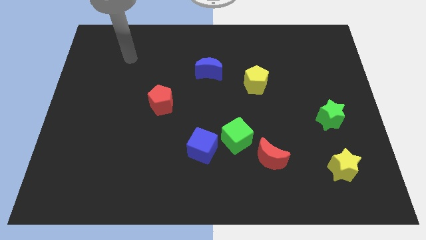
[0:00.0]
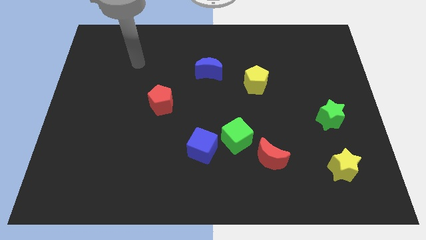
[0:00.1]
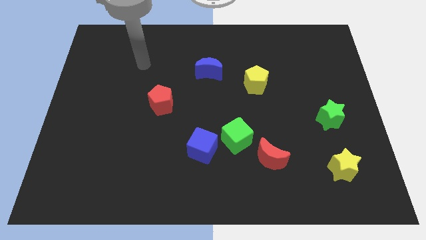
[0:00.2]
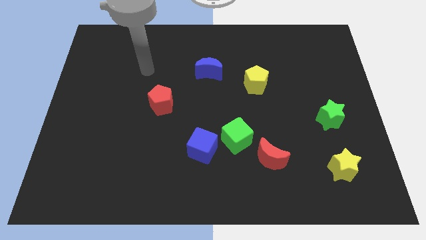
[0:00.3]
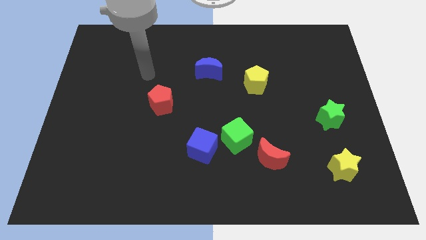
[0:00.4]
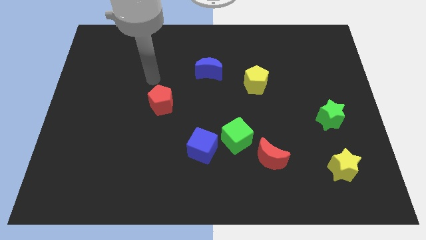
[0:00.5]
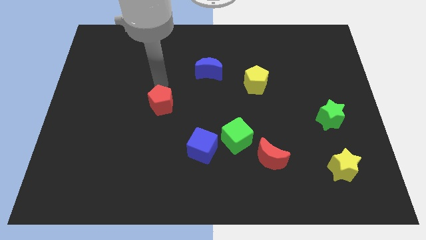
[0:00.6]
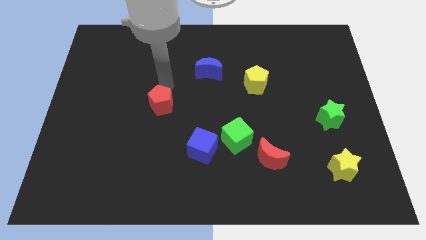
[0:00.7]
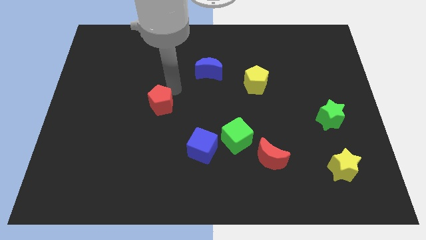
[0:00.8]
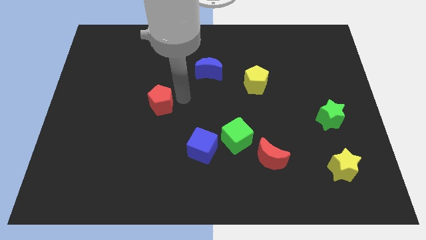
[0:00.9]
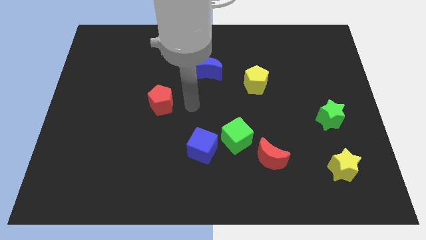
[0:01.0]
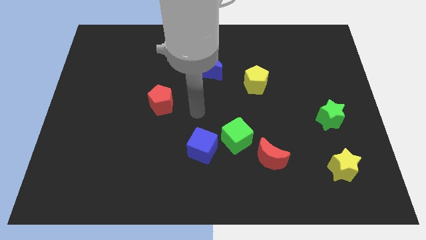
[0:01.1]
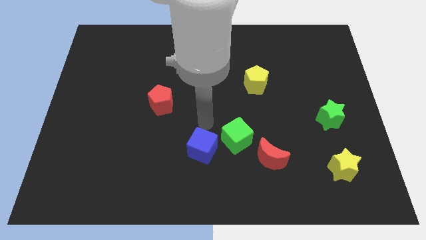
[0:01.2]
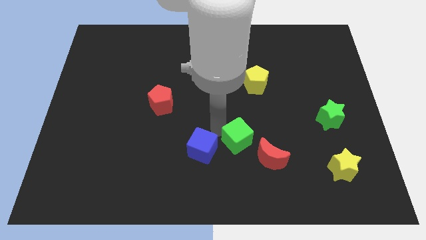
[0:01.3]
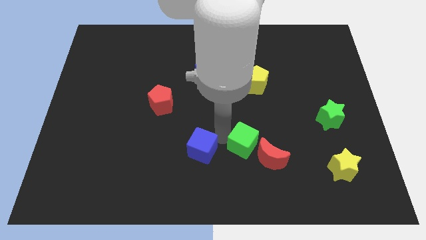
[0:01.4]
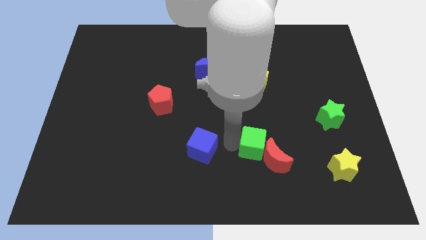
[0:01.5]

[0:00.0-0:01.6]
pull the blue cube apart from the green cube

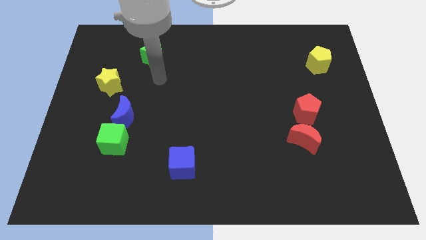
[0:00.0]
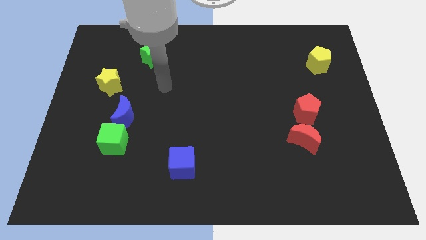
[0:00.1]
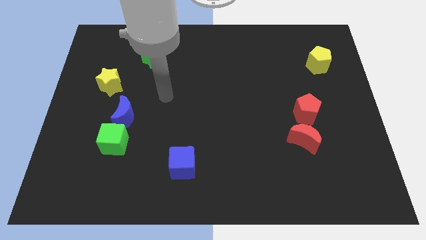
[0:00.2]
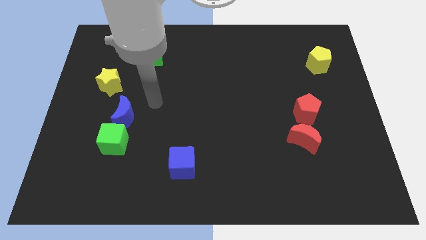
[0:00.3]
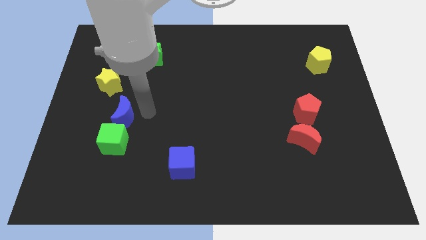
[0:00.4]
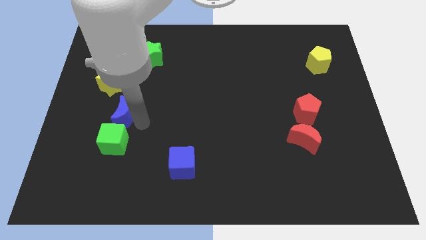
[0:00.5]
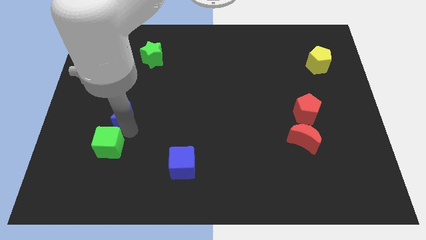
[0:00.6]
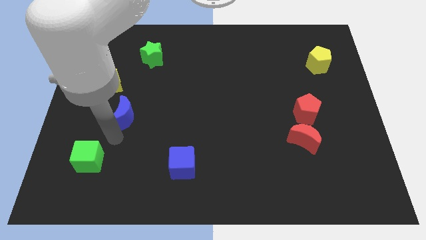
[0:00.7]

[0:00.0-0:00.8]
pull the blue moon apart from the green cube

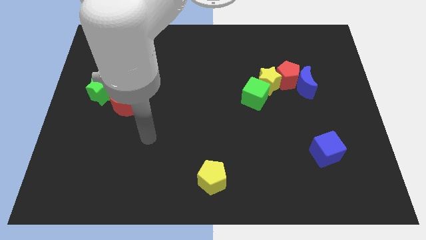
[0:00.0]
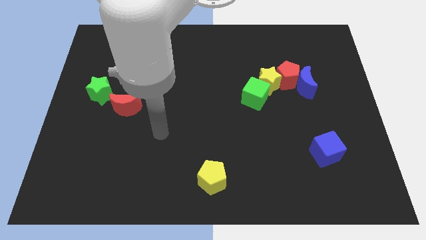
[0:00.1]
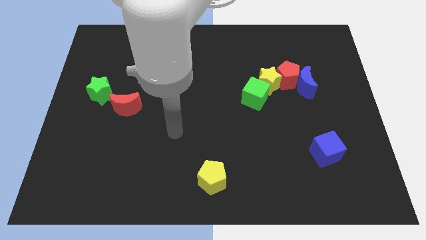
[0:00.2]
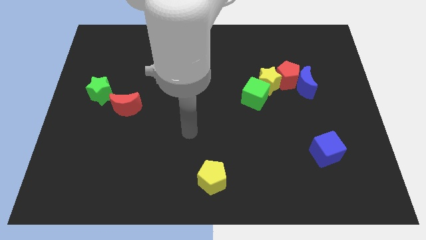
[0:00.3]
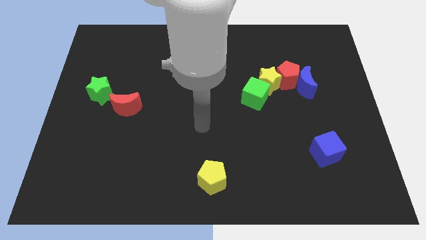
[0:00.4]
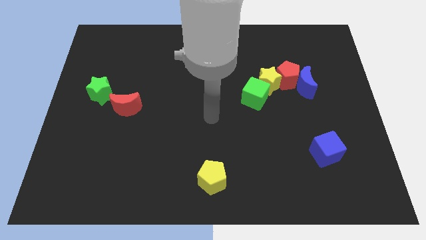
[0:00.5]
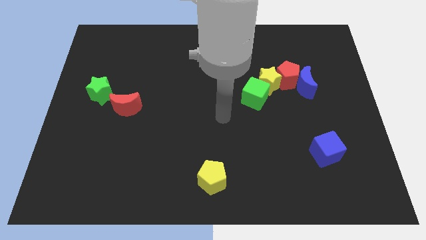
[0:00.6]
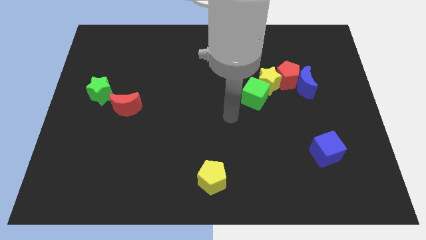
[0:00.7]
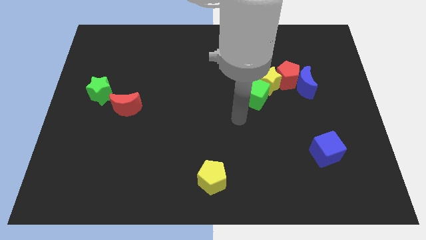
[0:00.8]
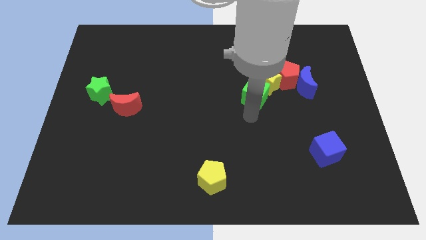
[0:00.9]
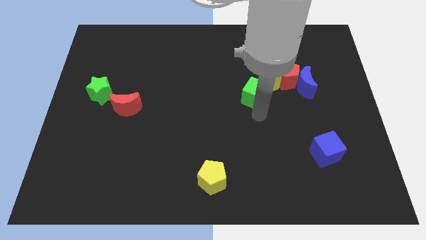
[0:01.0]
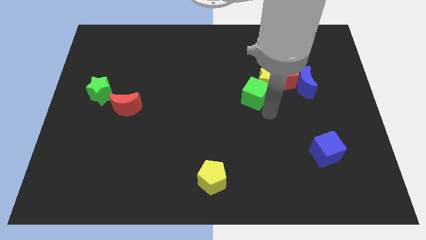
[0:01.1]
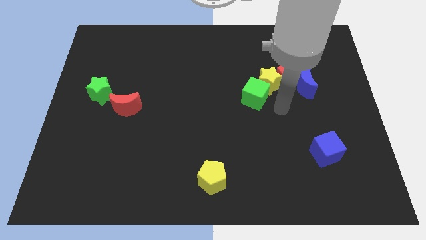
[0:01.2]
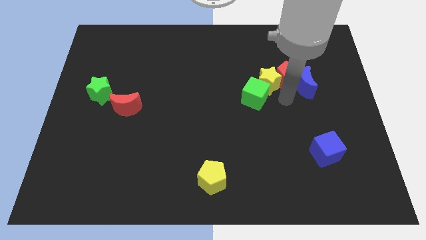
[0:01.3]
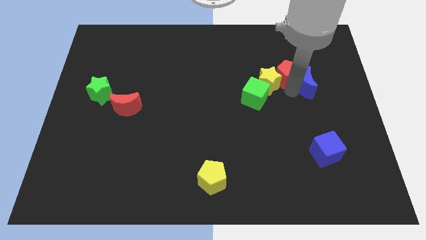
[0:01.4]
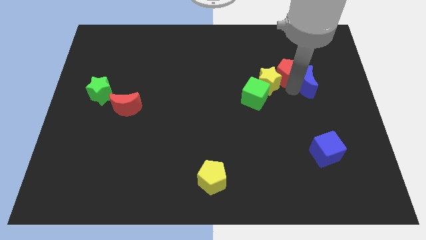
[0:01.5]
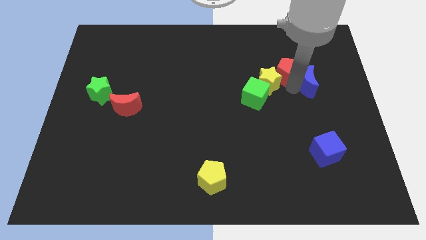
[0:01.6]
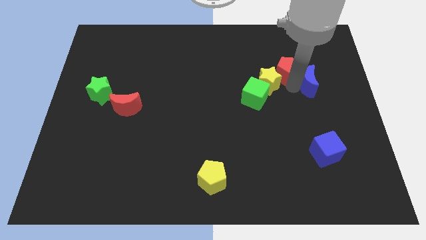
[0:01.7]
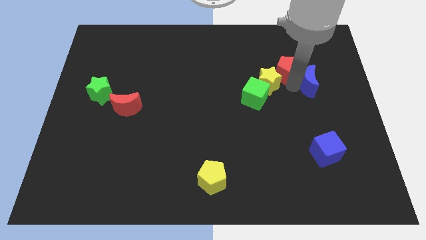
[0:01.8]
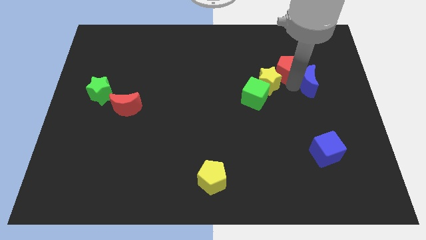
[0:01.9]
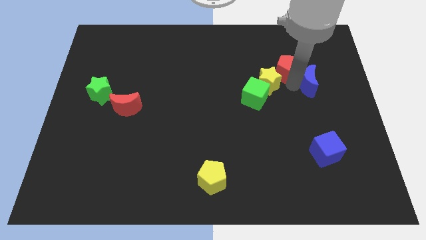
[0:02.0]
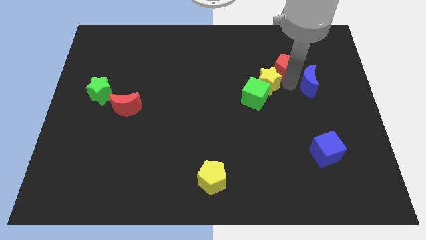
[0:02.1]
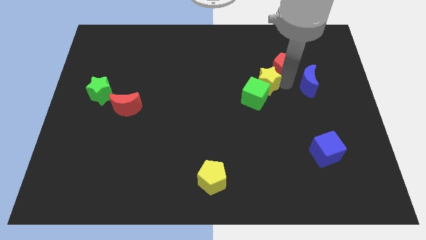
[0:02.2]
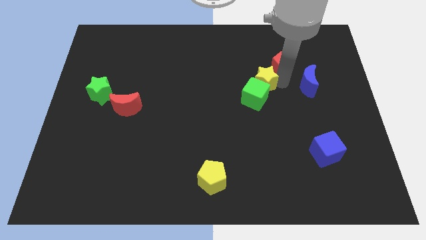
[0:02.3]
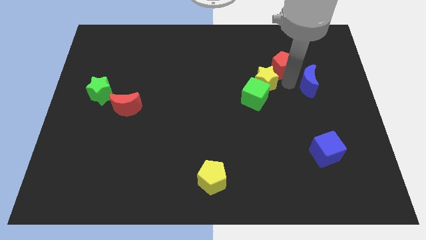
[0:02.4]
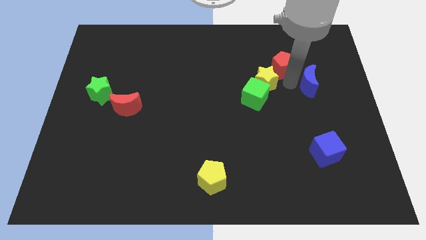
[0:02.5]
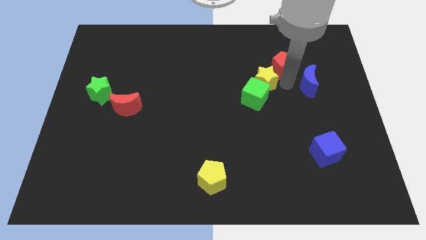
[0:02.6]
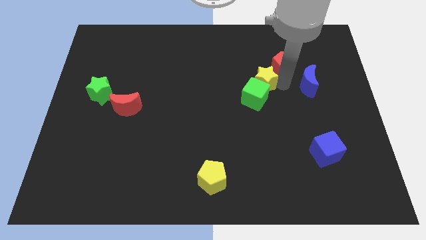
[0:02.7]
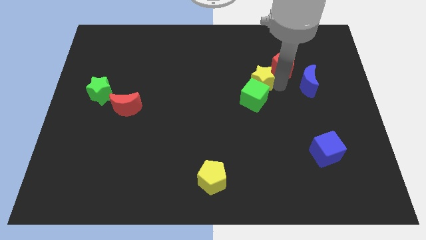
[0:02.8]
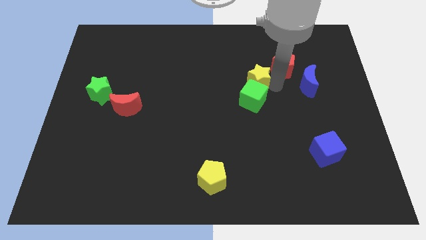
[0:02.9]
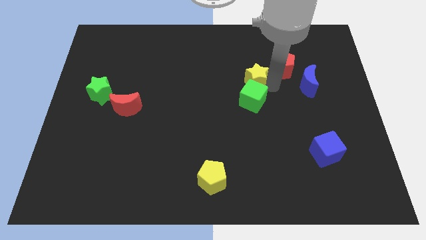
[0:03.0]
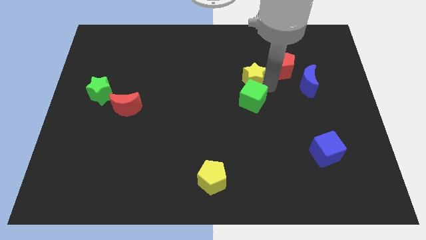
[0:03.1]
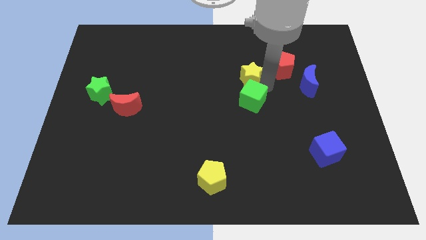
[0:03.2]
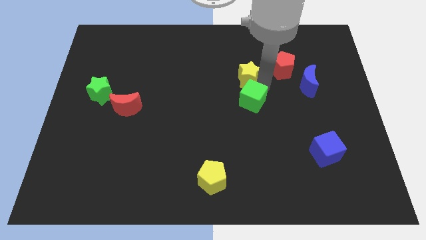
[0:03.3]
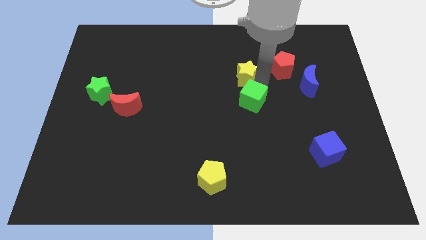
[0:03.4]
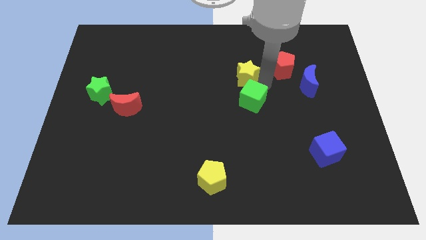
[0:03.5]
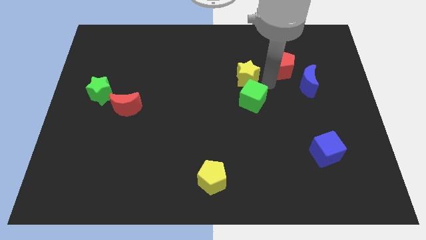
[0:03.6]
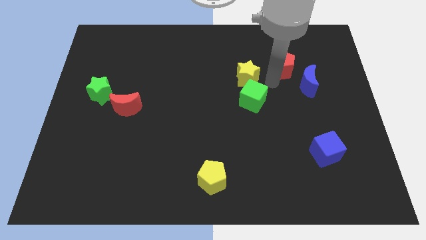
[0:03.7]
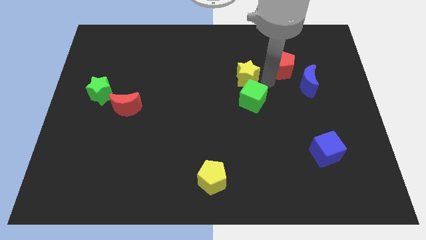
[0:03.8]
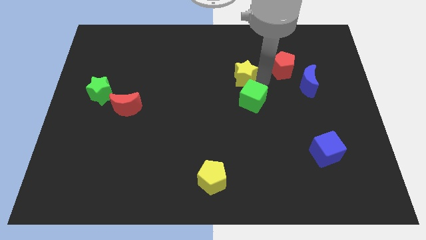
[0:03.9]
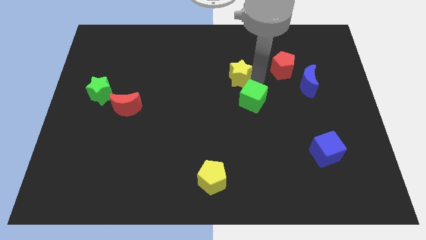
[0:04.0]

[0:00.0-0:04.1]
move the yellow star away from the red pentagon, green cube, and blue moon

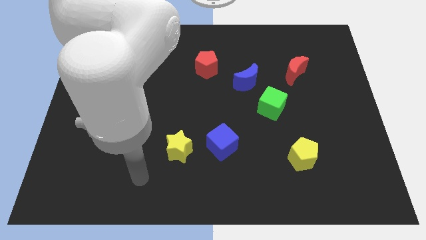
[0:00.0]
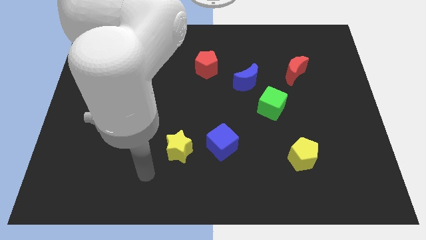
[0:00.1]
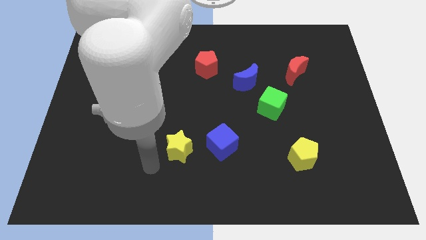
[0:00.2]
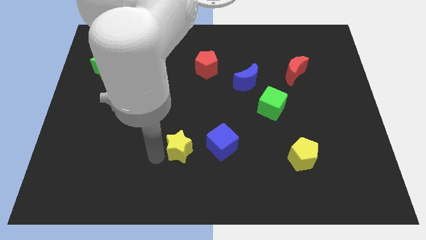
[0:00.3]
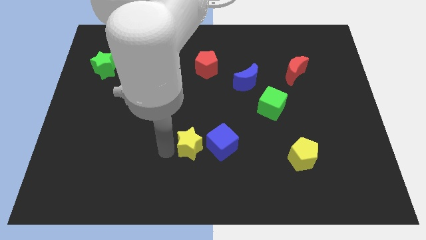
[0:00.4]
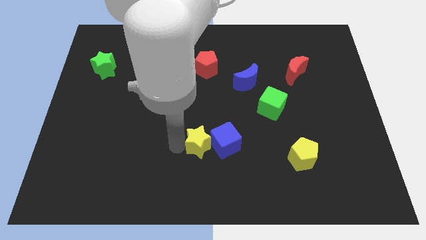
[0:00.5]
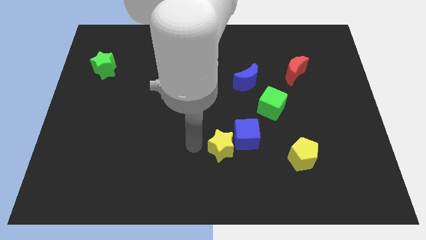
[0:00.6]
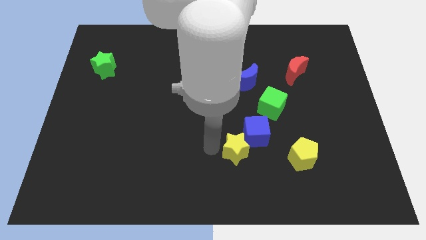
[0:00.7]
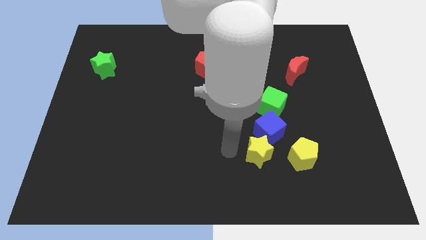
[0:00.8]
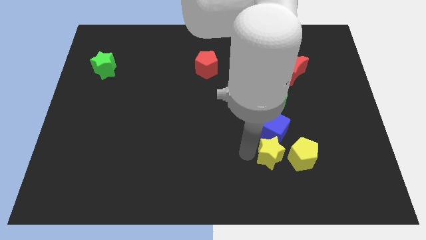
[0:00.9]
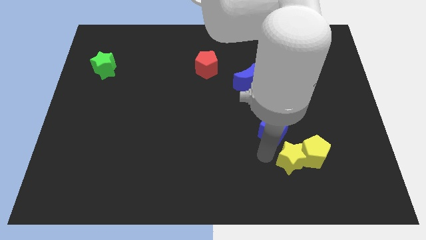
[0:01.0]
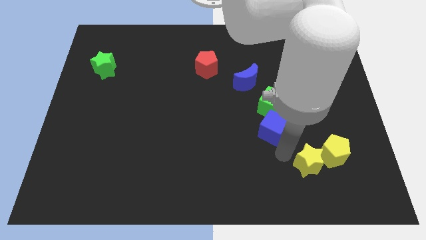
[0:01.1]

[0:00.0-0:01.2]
separate the blue cube from the yellow star

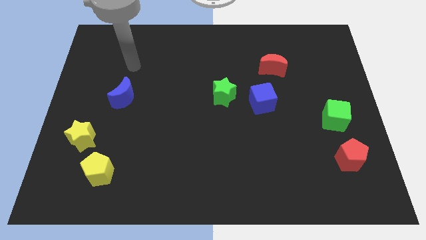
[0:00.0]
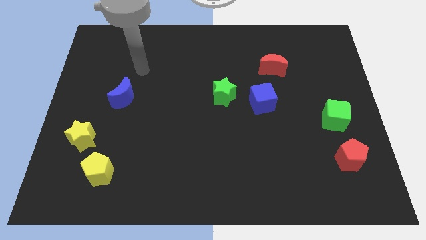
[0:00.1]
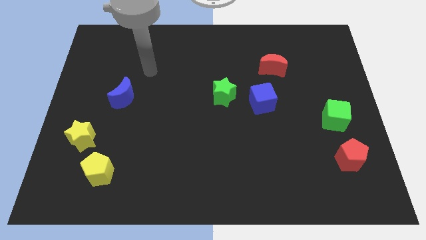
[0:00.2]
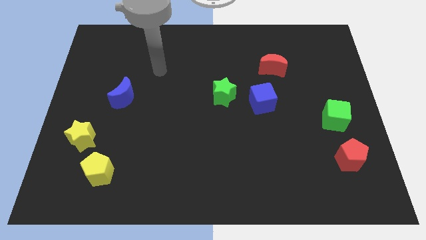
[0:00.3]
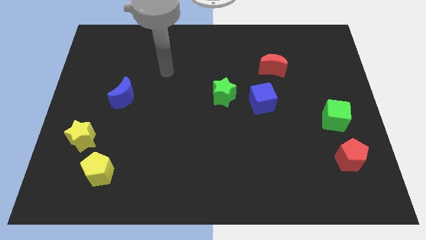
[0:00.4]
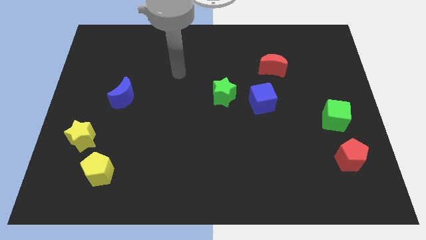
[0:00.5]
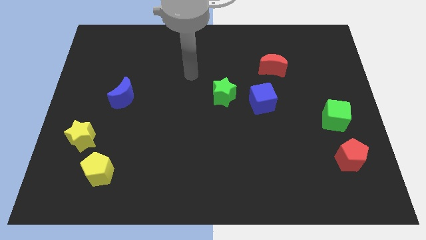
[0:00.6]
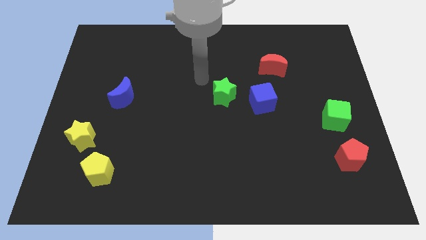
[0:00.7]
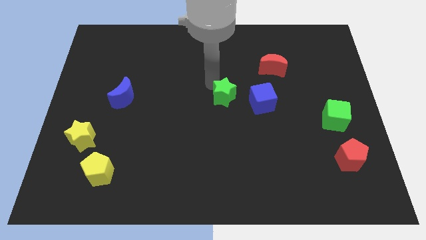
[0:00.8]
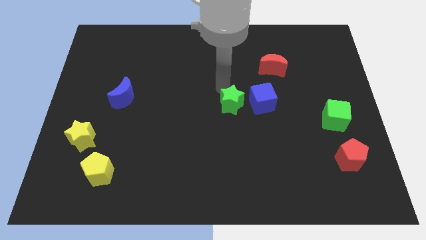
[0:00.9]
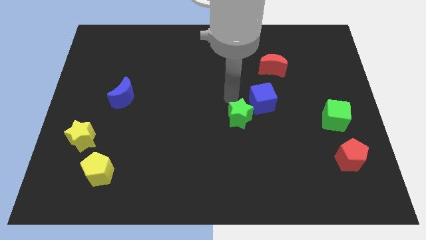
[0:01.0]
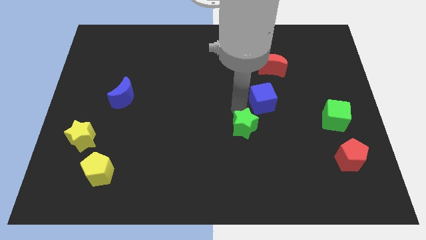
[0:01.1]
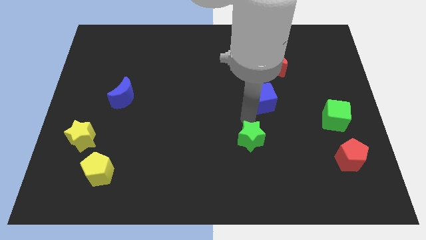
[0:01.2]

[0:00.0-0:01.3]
pull the blue cube apart from the green star

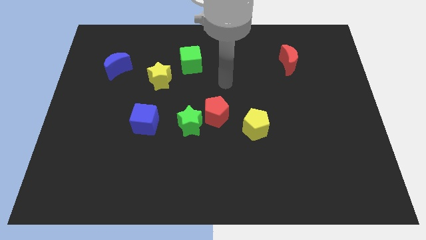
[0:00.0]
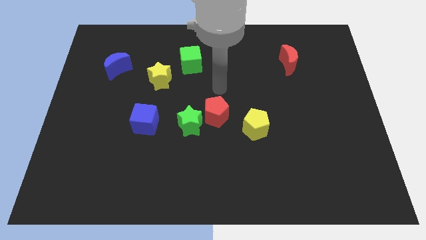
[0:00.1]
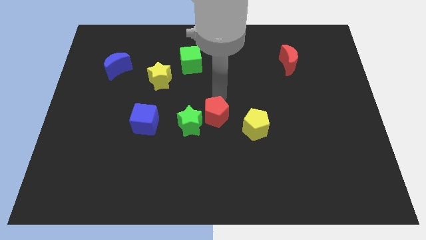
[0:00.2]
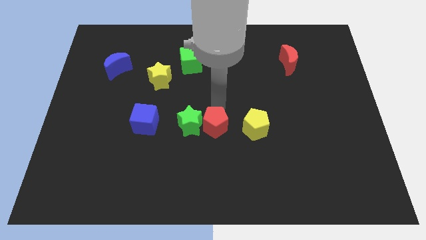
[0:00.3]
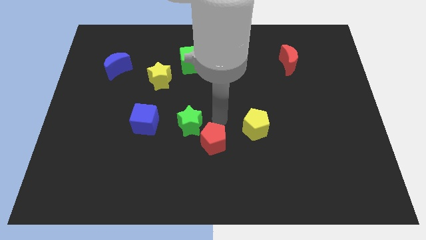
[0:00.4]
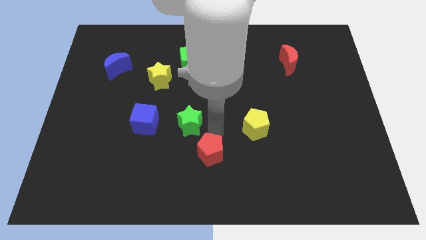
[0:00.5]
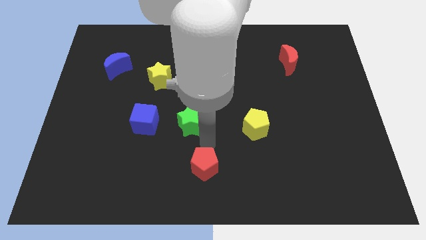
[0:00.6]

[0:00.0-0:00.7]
move the green star away from the red pentagon
